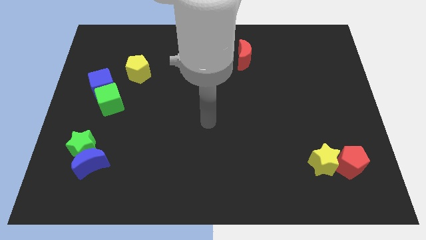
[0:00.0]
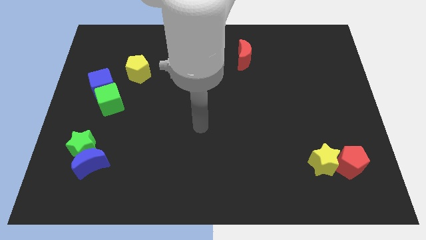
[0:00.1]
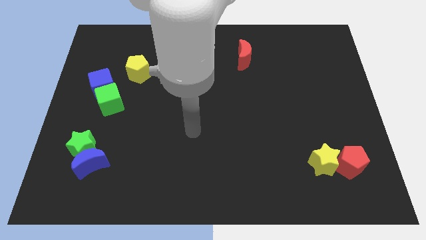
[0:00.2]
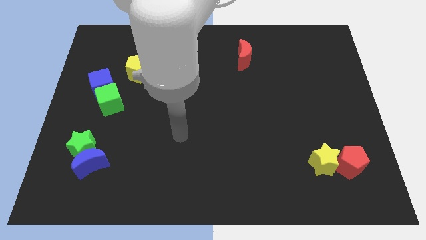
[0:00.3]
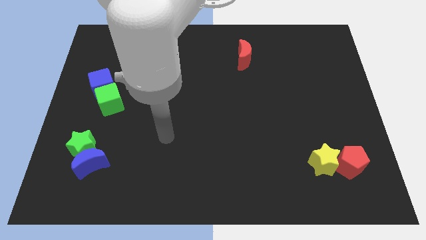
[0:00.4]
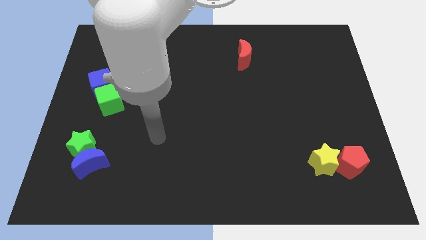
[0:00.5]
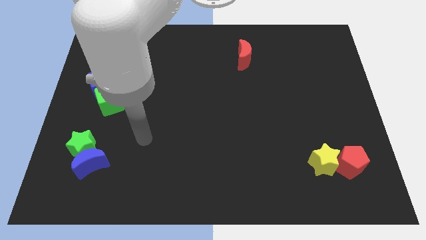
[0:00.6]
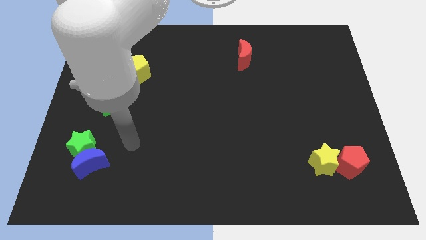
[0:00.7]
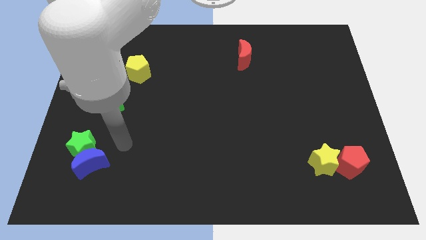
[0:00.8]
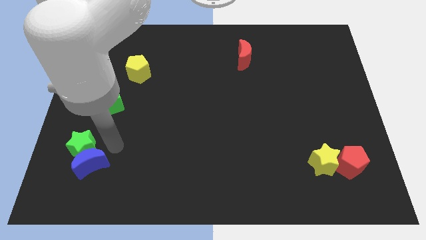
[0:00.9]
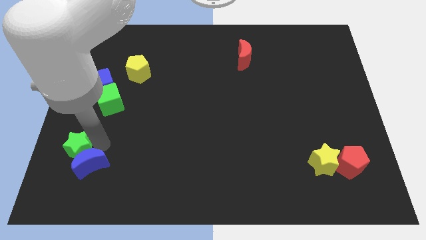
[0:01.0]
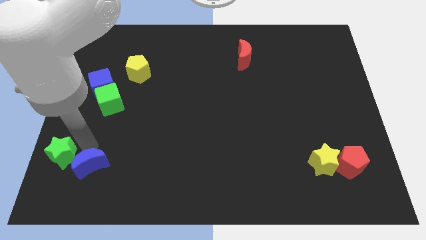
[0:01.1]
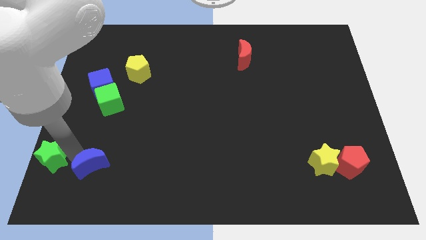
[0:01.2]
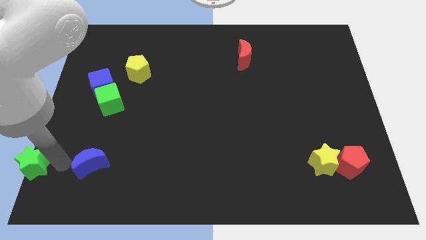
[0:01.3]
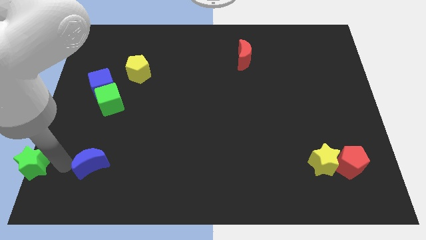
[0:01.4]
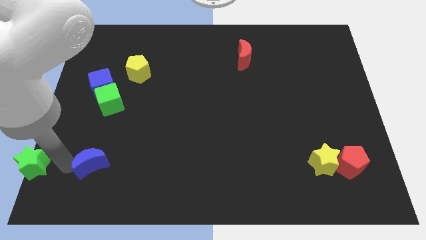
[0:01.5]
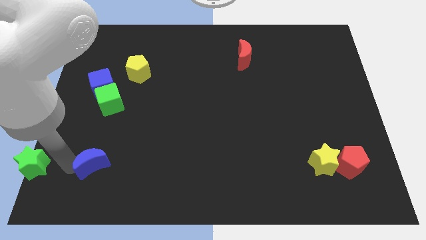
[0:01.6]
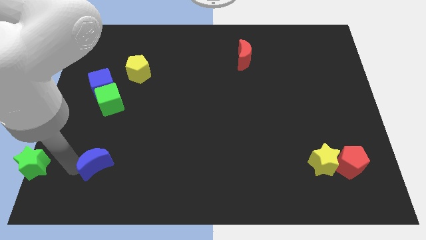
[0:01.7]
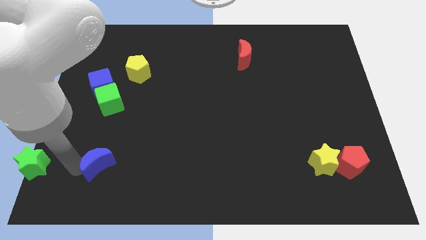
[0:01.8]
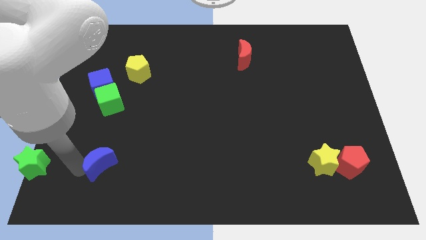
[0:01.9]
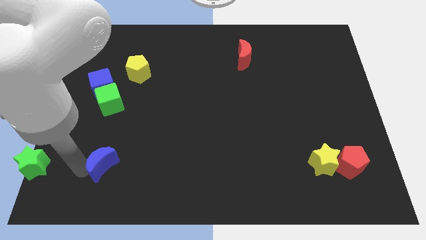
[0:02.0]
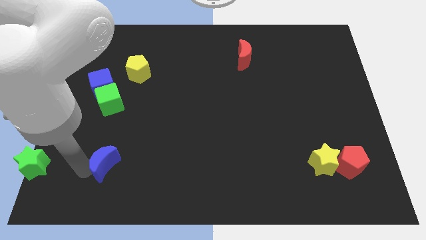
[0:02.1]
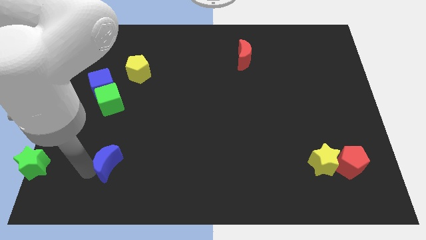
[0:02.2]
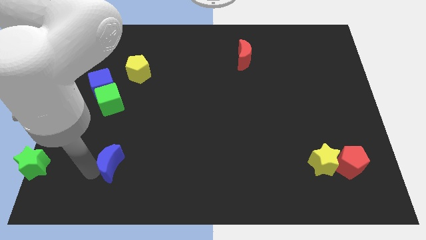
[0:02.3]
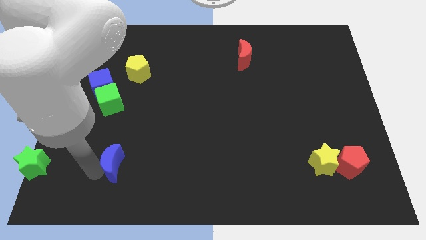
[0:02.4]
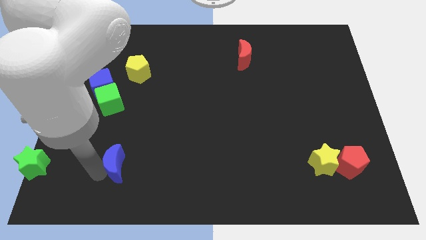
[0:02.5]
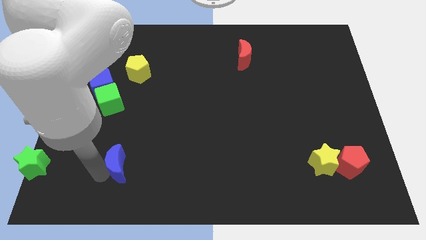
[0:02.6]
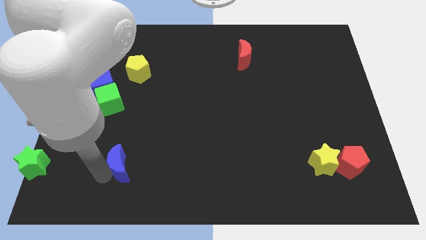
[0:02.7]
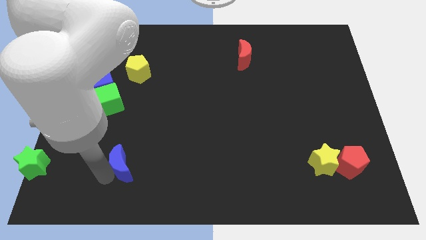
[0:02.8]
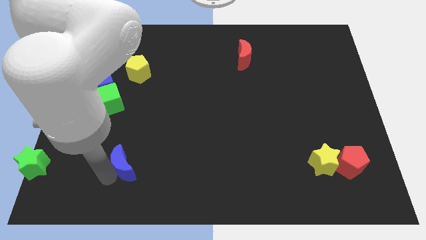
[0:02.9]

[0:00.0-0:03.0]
move the blue moon right a little

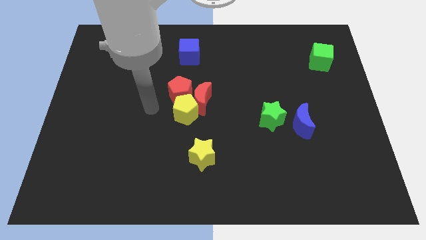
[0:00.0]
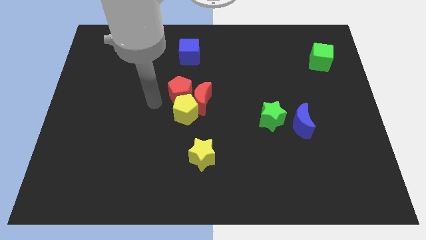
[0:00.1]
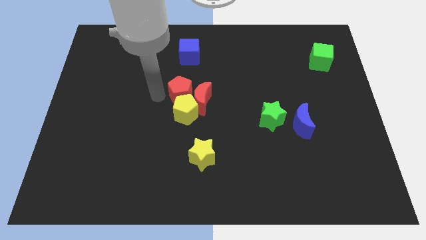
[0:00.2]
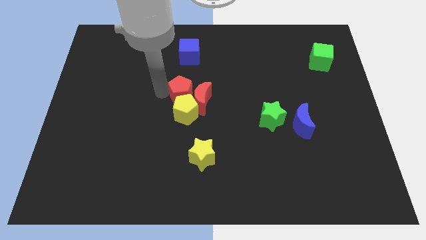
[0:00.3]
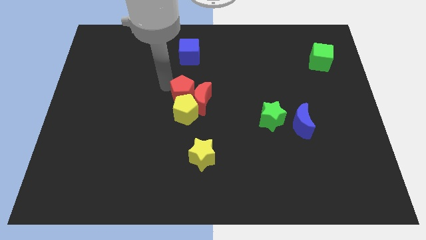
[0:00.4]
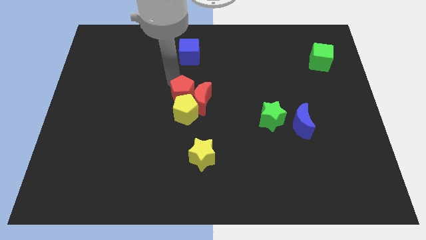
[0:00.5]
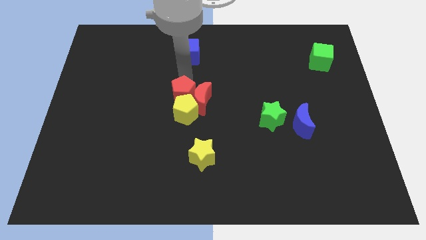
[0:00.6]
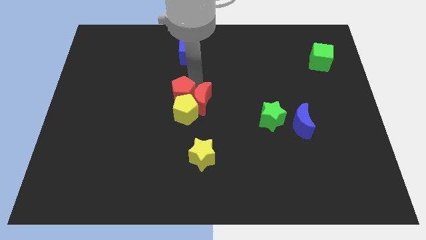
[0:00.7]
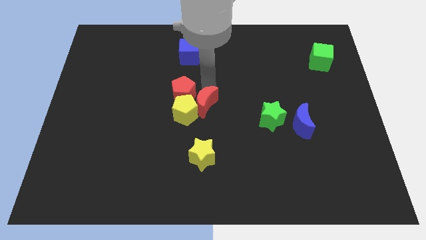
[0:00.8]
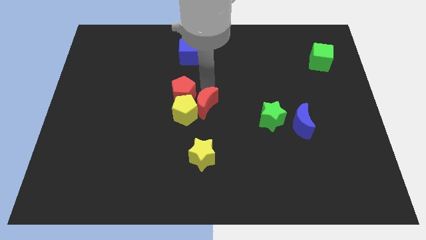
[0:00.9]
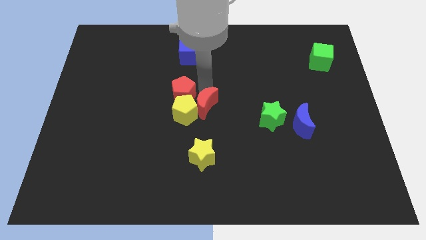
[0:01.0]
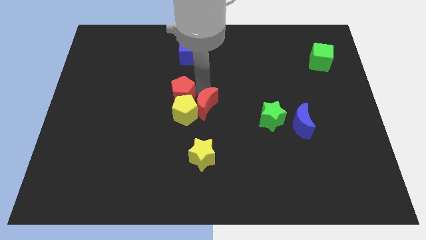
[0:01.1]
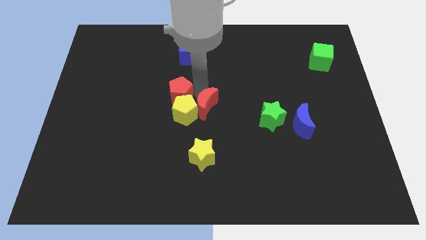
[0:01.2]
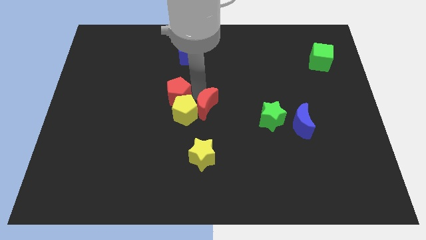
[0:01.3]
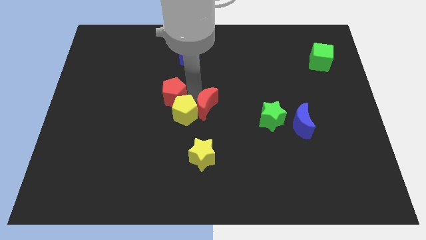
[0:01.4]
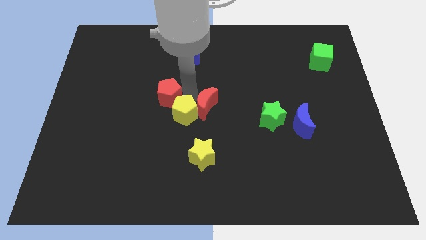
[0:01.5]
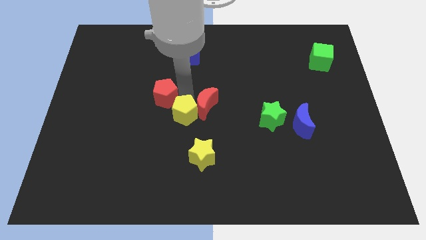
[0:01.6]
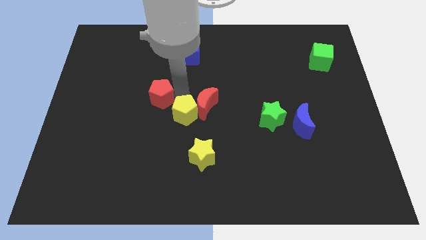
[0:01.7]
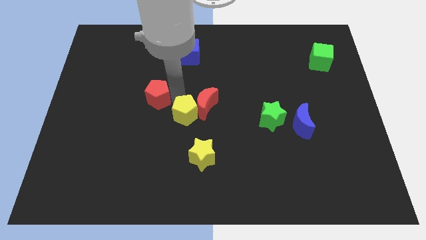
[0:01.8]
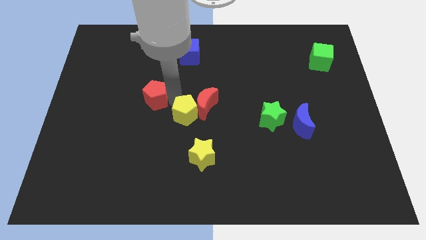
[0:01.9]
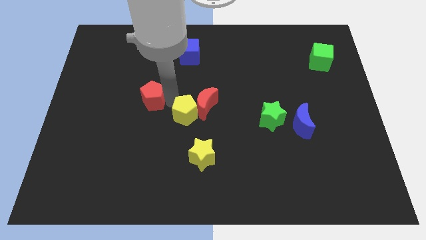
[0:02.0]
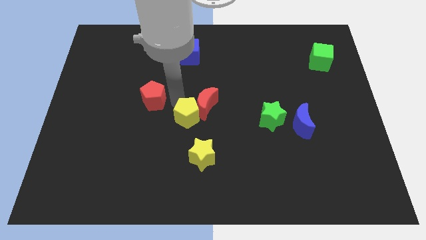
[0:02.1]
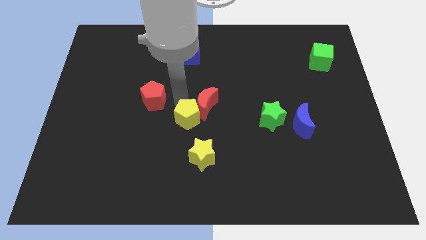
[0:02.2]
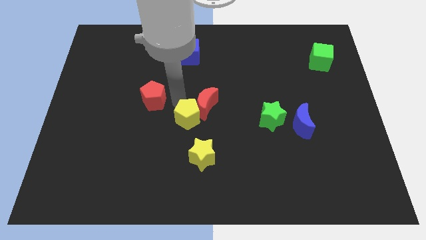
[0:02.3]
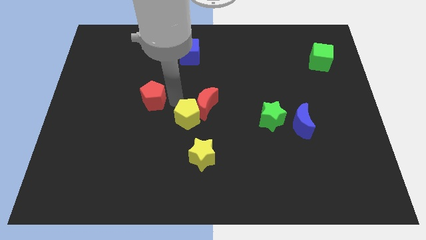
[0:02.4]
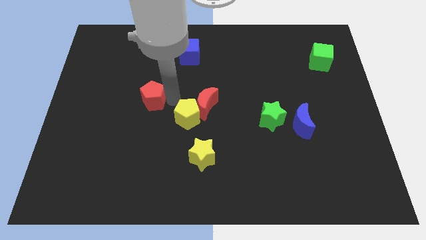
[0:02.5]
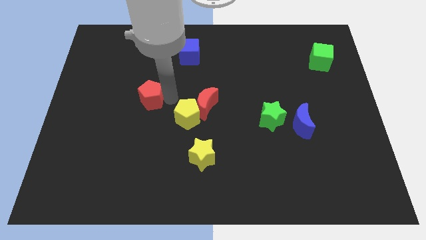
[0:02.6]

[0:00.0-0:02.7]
slightly slide the red pentagon left

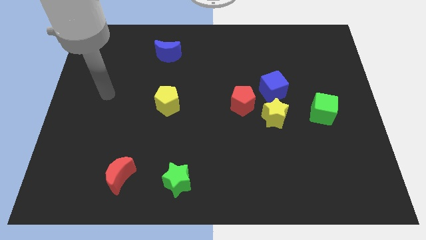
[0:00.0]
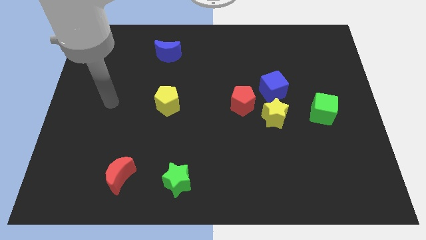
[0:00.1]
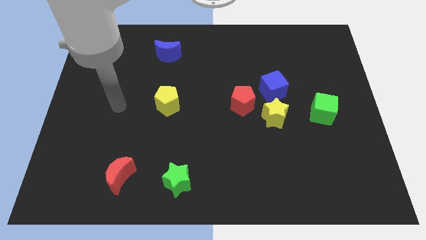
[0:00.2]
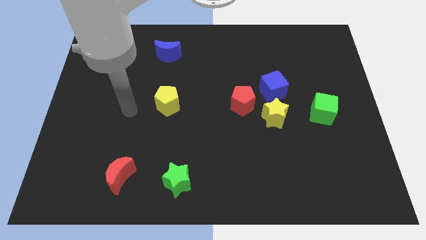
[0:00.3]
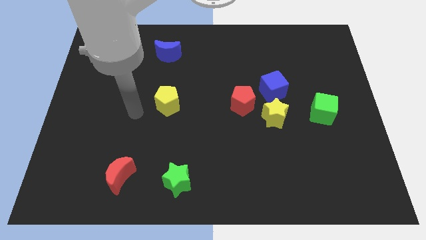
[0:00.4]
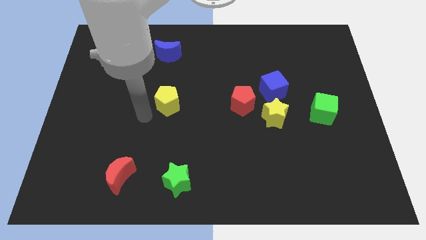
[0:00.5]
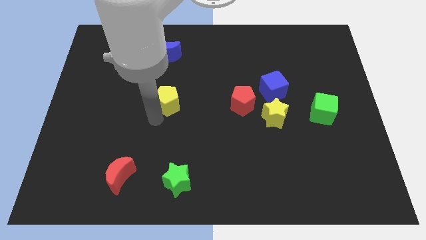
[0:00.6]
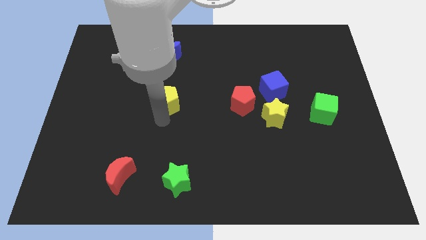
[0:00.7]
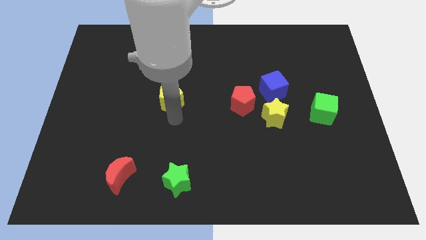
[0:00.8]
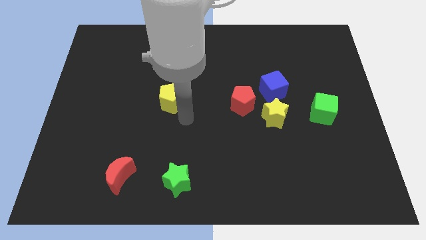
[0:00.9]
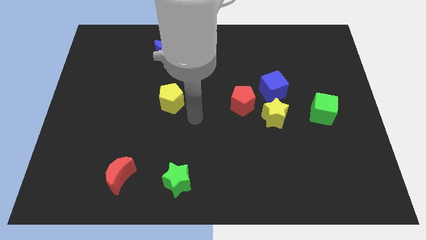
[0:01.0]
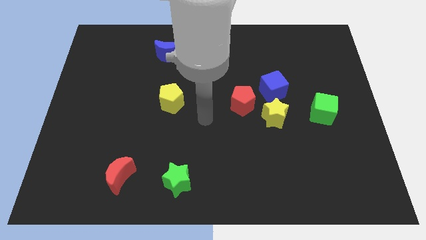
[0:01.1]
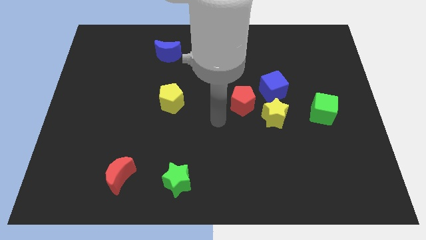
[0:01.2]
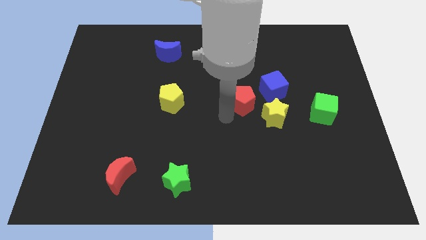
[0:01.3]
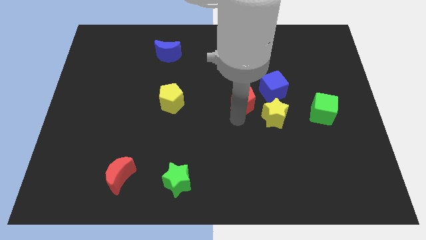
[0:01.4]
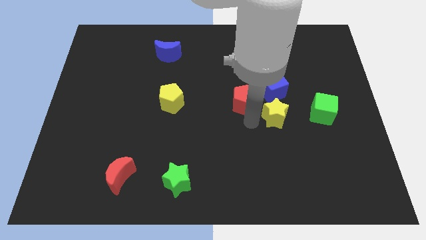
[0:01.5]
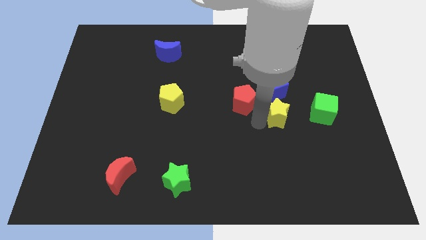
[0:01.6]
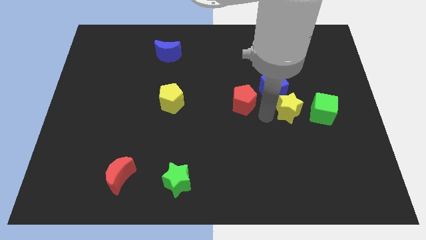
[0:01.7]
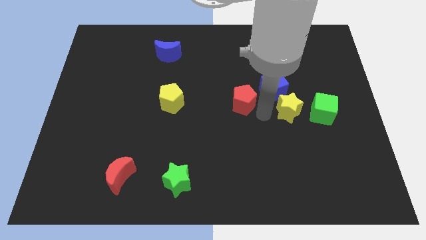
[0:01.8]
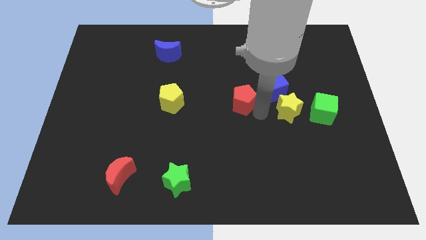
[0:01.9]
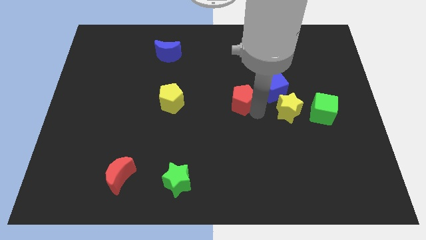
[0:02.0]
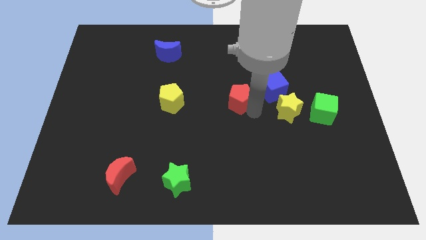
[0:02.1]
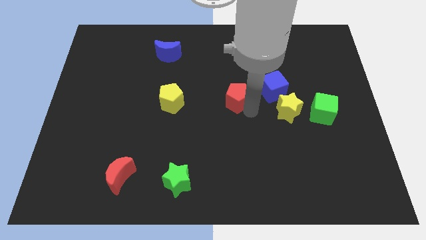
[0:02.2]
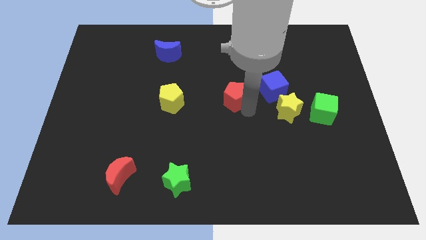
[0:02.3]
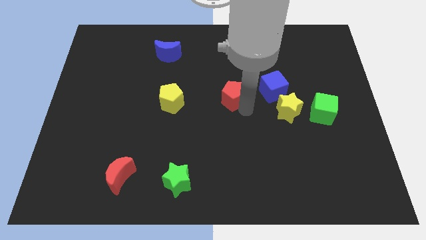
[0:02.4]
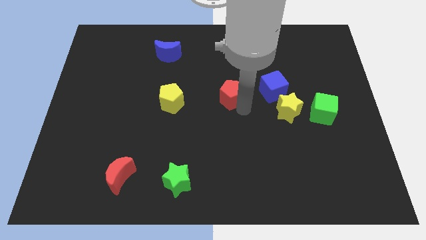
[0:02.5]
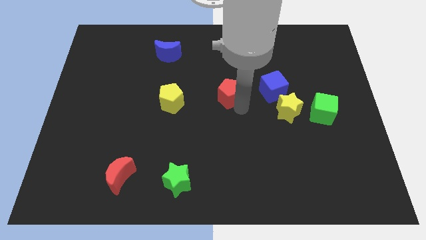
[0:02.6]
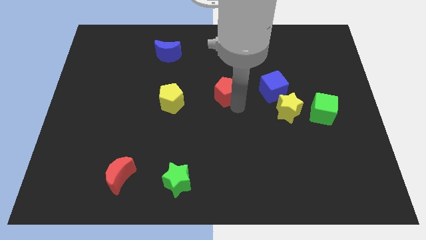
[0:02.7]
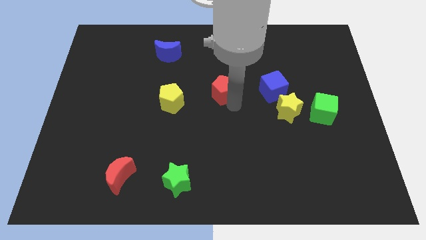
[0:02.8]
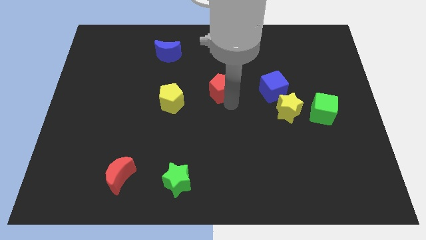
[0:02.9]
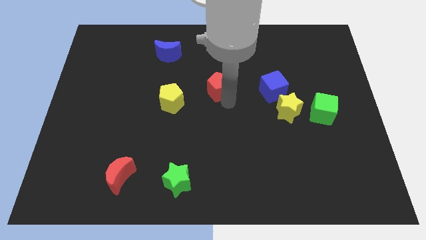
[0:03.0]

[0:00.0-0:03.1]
move the red pentagon somewhat diagonally upwards and left
